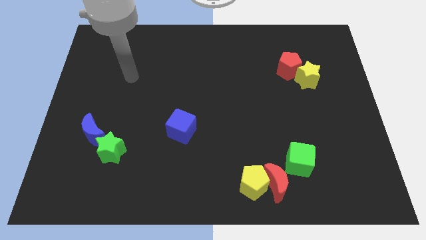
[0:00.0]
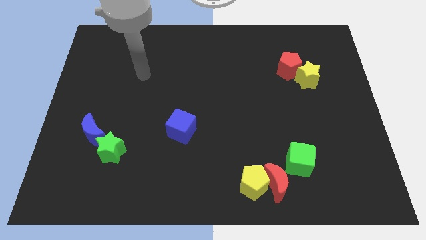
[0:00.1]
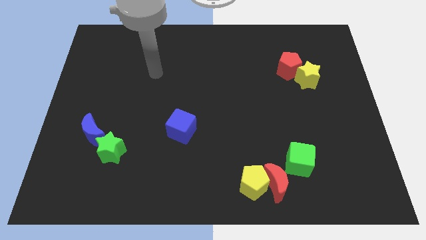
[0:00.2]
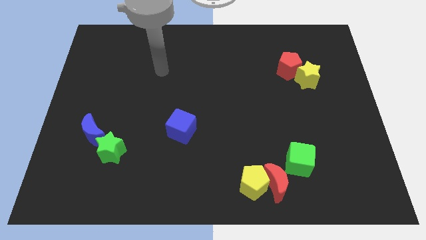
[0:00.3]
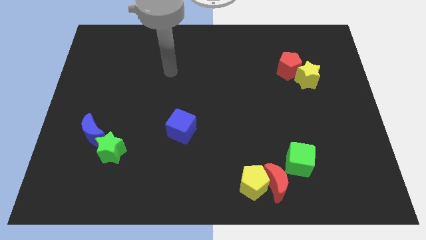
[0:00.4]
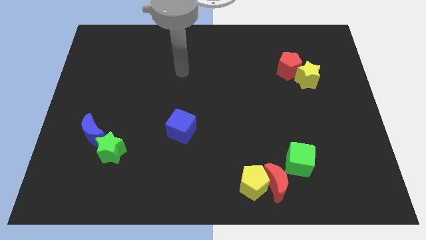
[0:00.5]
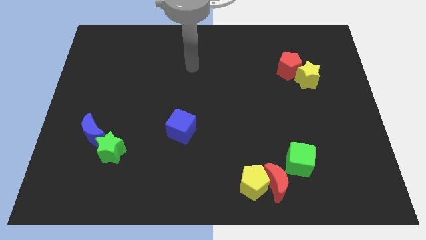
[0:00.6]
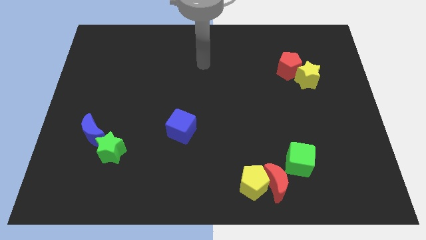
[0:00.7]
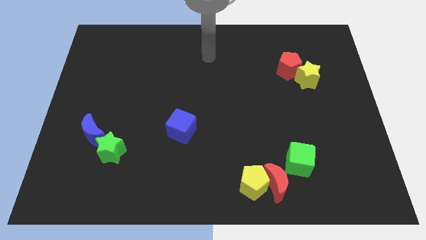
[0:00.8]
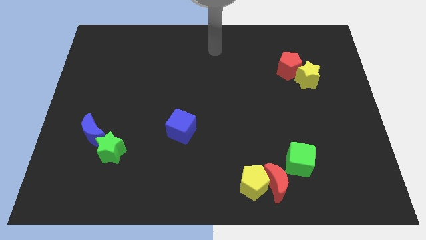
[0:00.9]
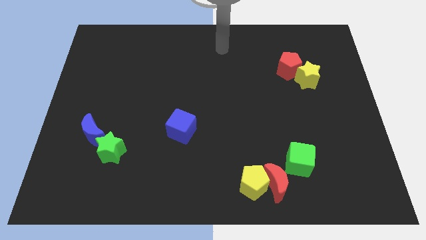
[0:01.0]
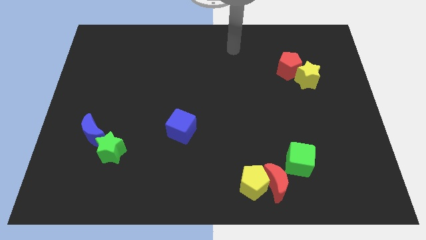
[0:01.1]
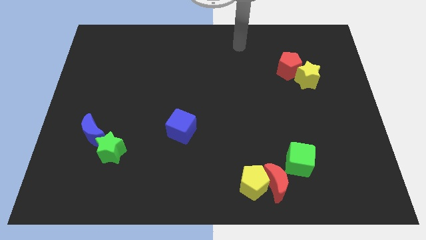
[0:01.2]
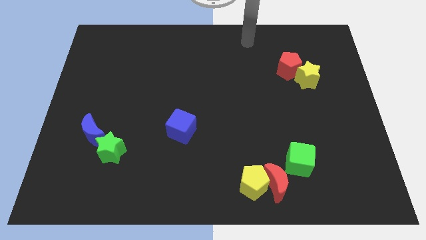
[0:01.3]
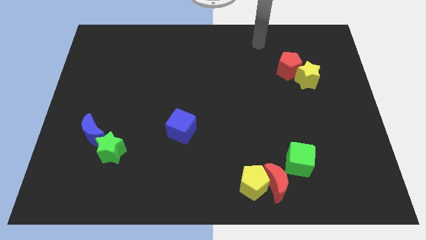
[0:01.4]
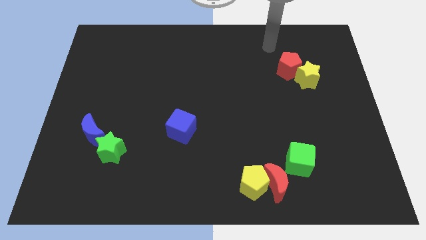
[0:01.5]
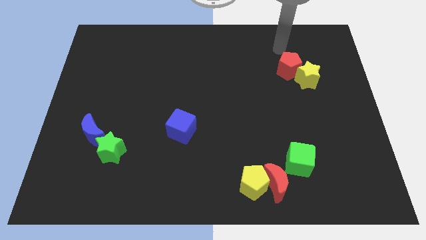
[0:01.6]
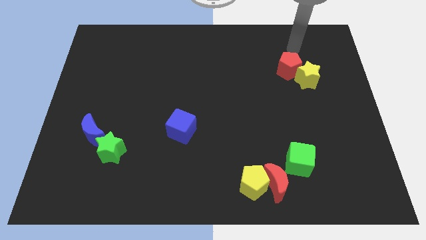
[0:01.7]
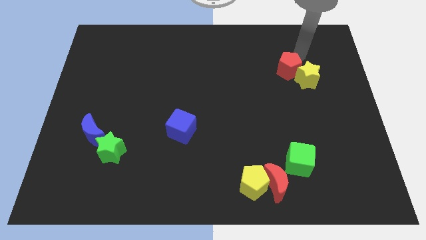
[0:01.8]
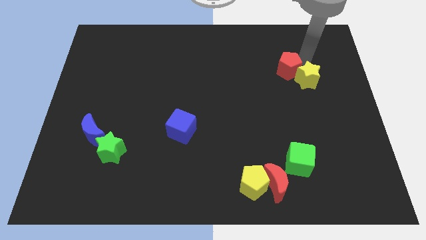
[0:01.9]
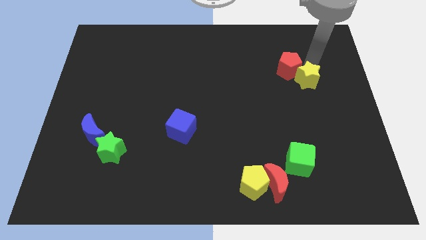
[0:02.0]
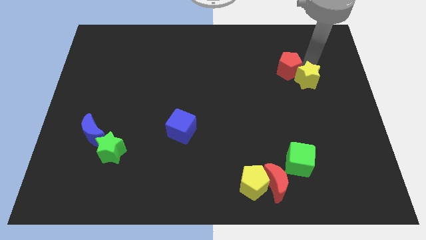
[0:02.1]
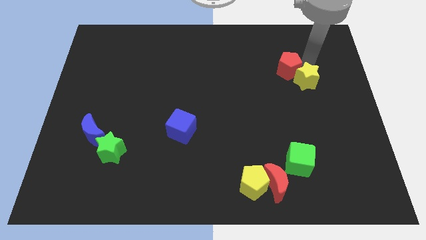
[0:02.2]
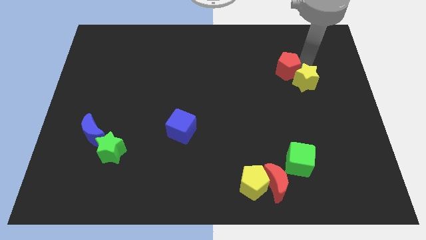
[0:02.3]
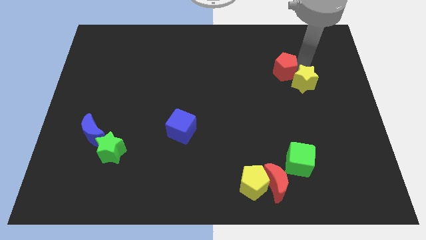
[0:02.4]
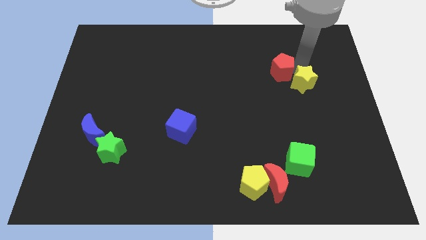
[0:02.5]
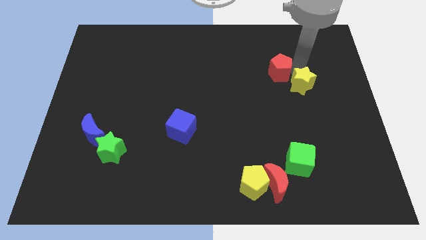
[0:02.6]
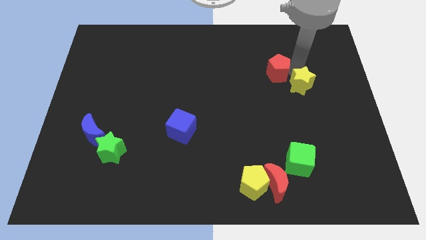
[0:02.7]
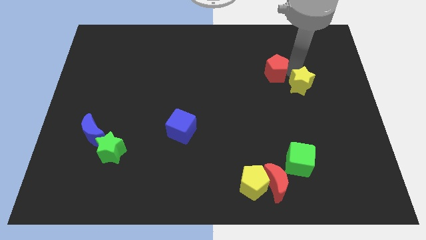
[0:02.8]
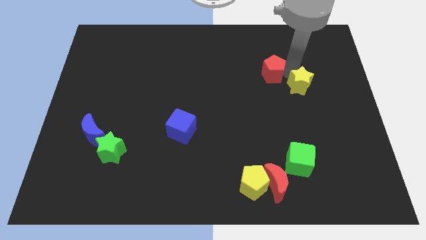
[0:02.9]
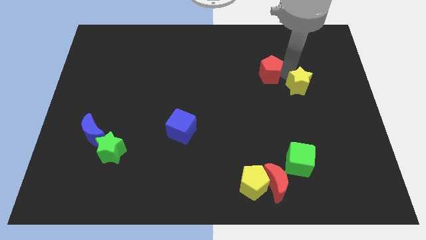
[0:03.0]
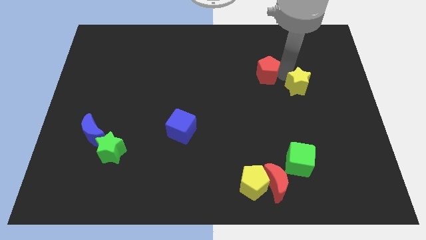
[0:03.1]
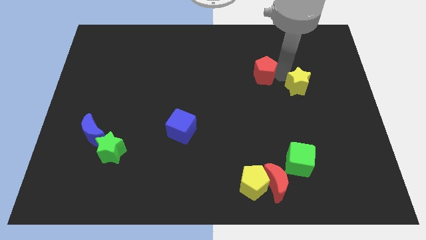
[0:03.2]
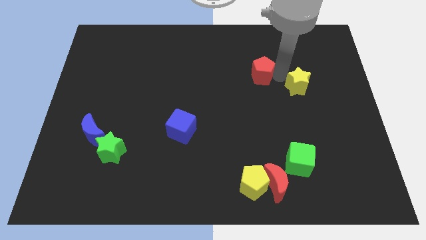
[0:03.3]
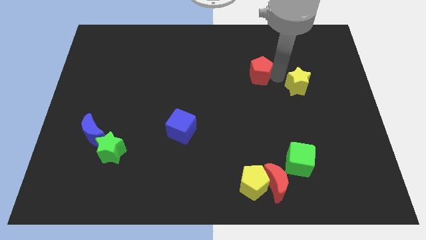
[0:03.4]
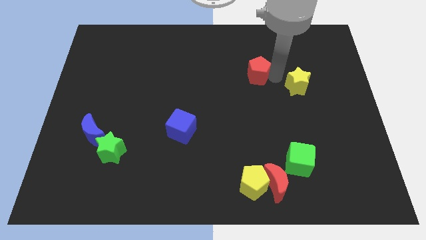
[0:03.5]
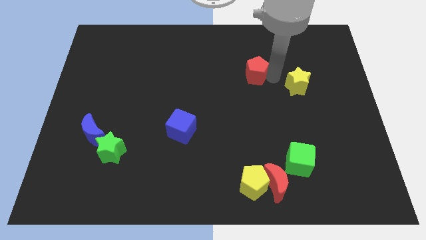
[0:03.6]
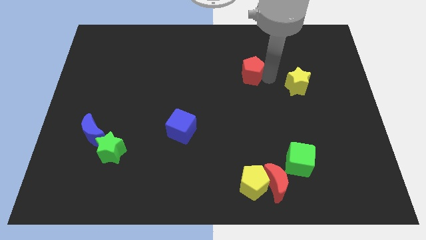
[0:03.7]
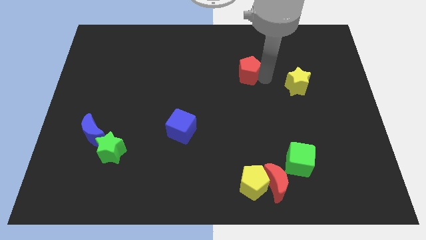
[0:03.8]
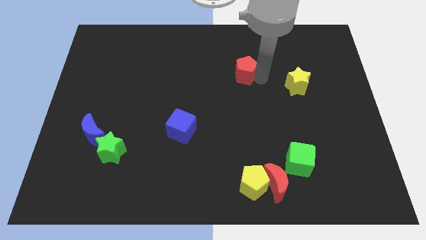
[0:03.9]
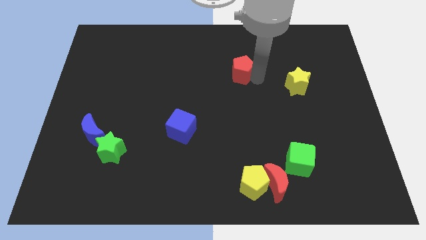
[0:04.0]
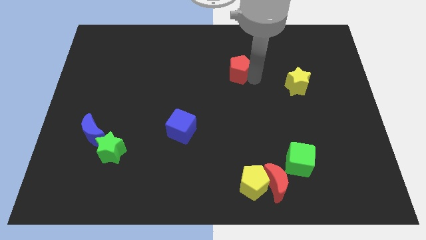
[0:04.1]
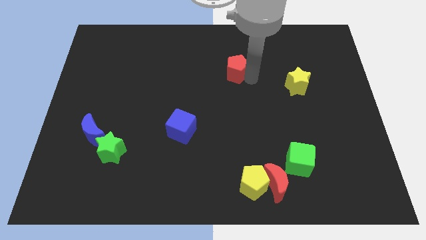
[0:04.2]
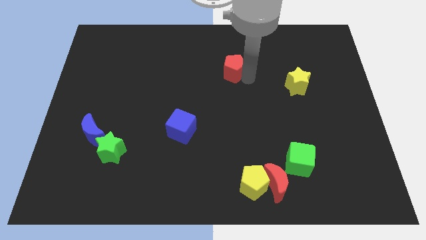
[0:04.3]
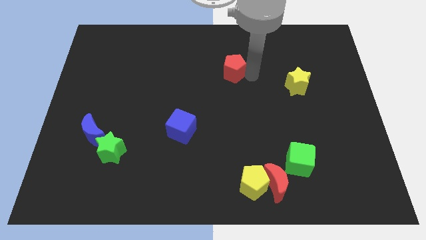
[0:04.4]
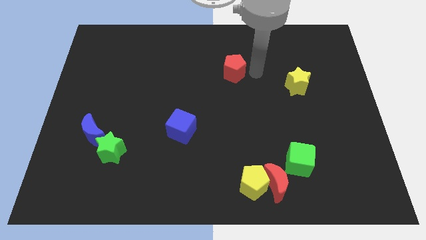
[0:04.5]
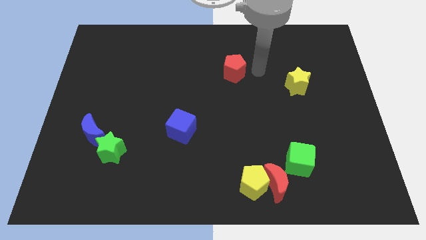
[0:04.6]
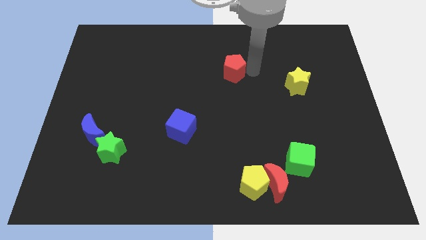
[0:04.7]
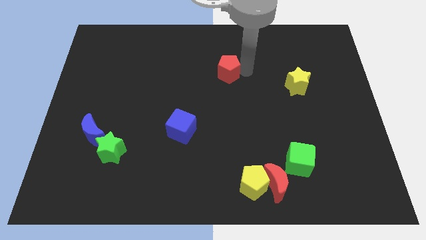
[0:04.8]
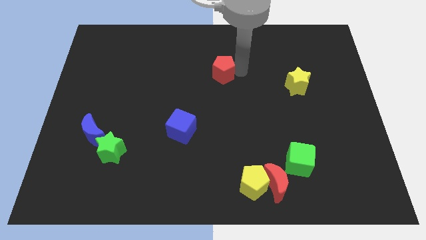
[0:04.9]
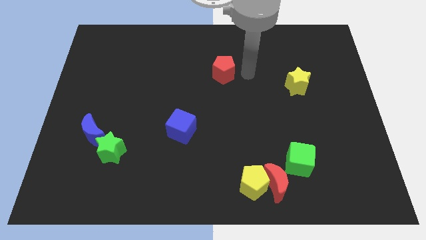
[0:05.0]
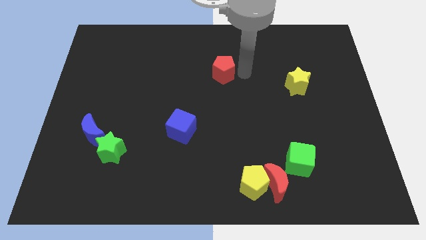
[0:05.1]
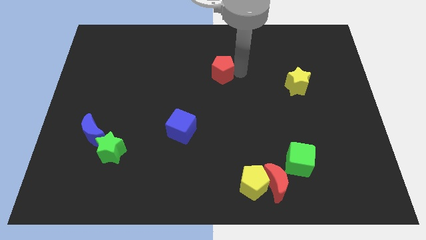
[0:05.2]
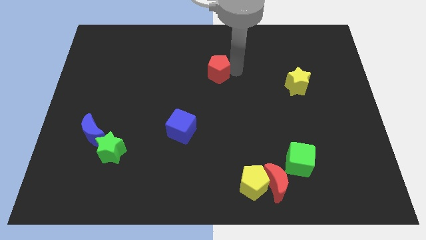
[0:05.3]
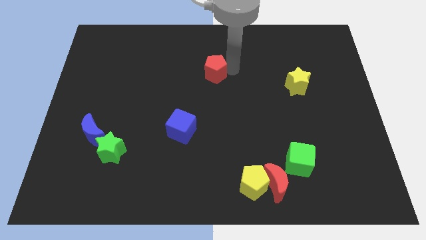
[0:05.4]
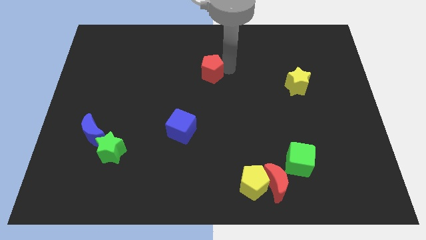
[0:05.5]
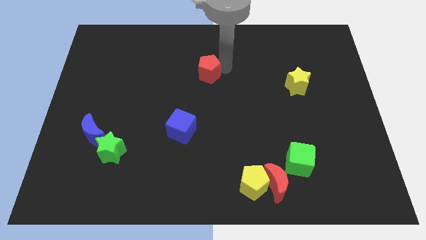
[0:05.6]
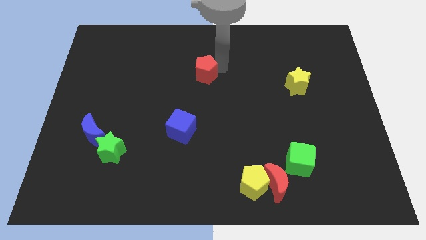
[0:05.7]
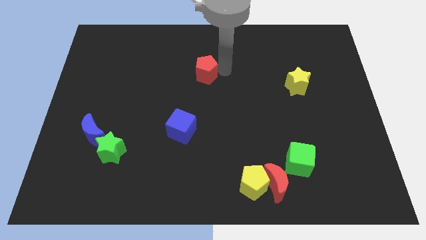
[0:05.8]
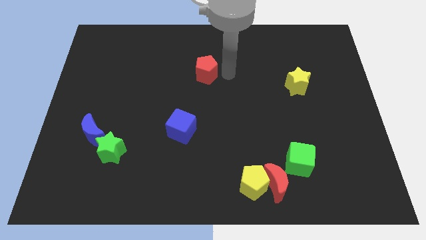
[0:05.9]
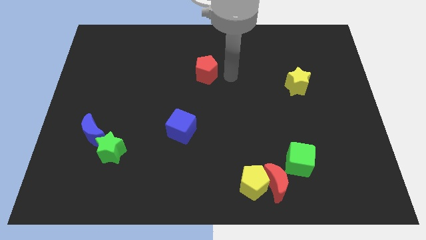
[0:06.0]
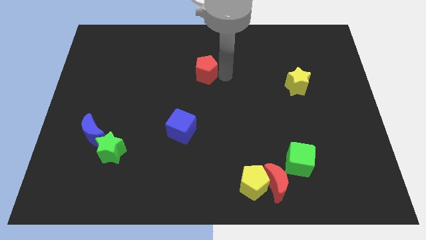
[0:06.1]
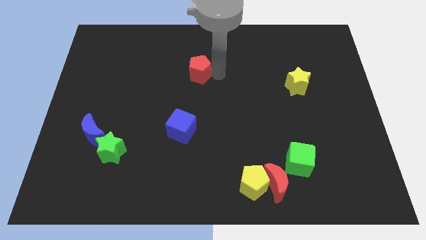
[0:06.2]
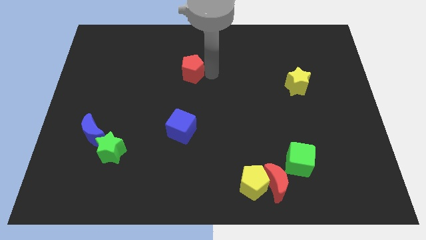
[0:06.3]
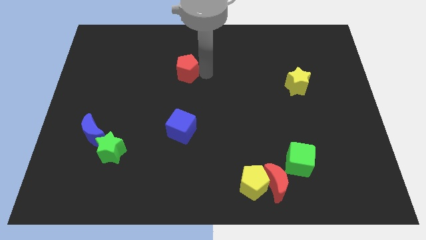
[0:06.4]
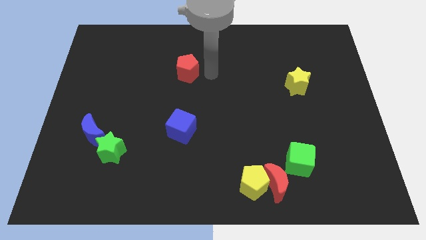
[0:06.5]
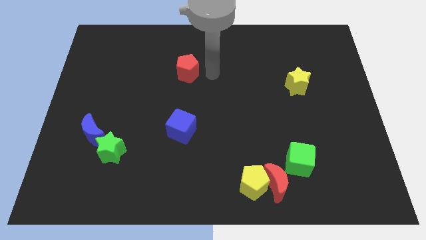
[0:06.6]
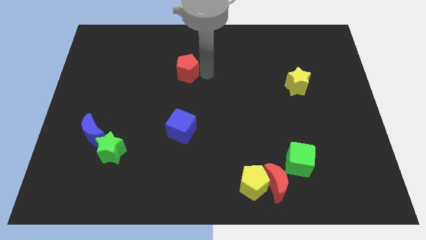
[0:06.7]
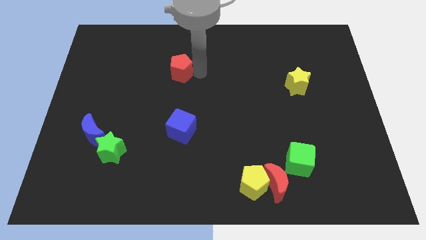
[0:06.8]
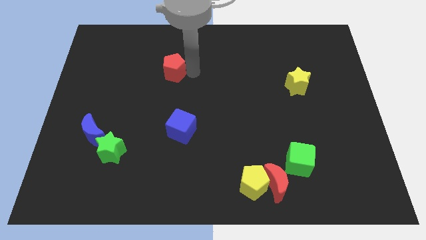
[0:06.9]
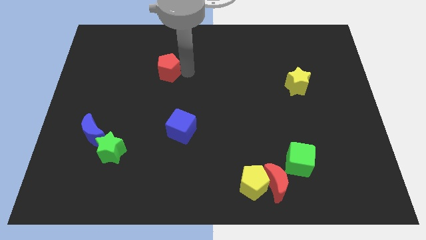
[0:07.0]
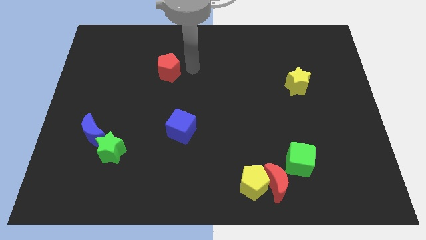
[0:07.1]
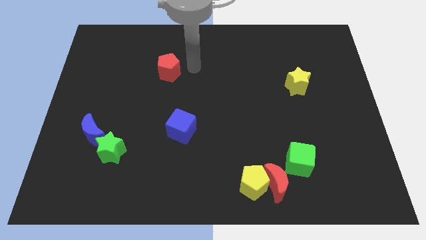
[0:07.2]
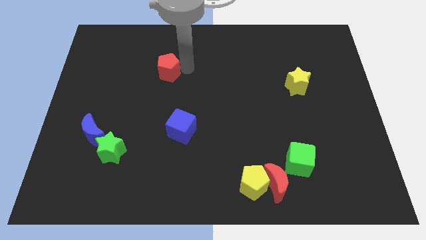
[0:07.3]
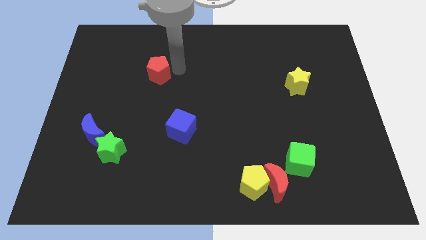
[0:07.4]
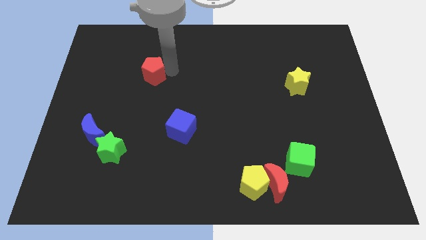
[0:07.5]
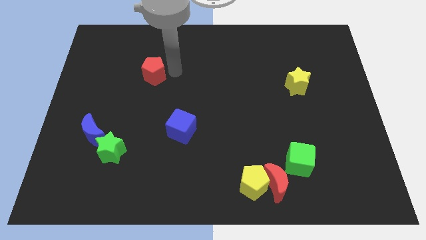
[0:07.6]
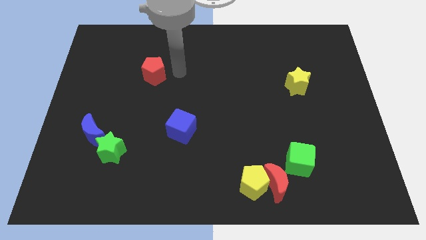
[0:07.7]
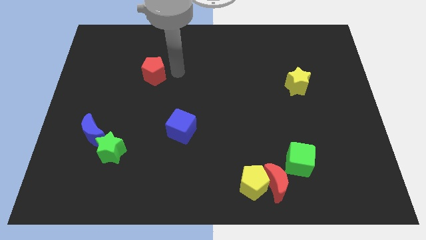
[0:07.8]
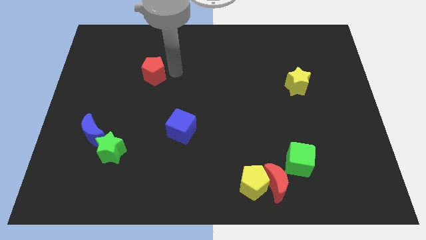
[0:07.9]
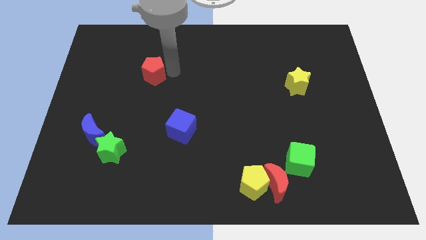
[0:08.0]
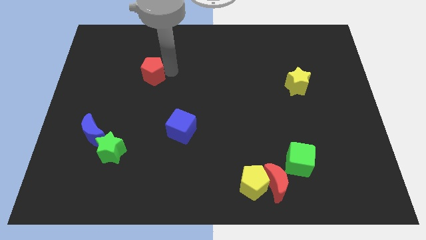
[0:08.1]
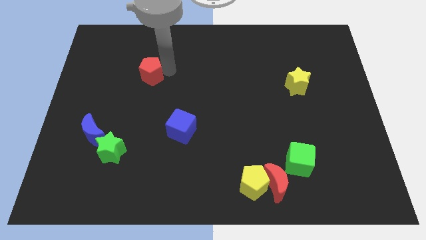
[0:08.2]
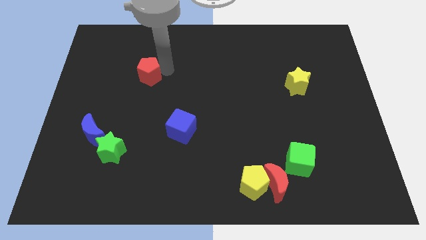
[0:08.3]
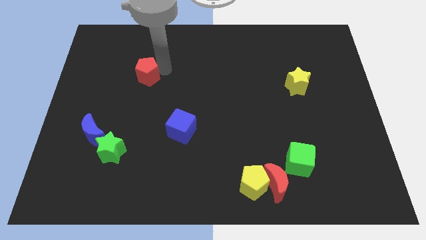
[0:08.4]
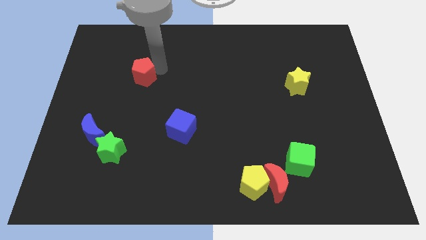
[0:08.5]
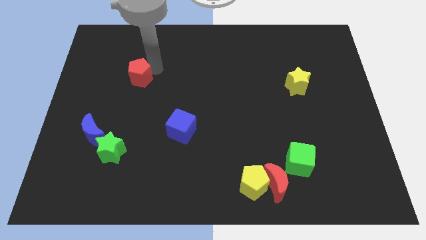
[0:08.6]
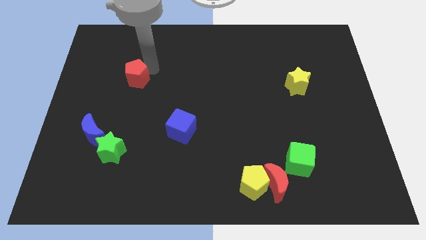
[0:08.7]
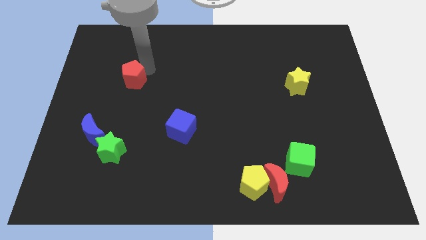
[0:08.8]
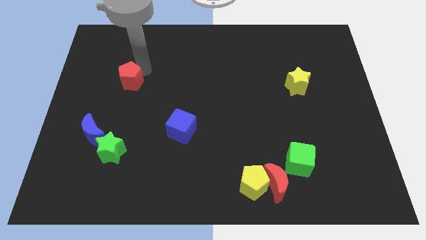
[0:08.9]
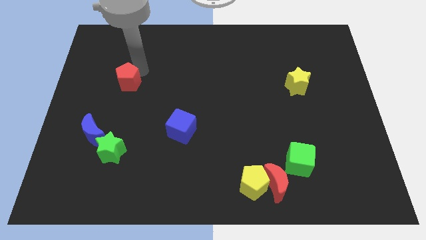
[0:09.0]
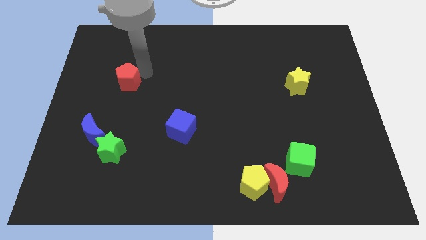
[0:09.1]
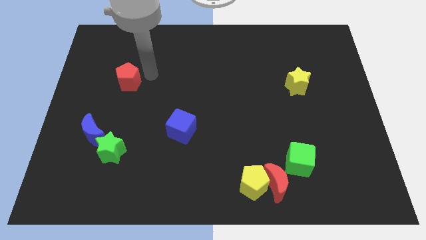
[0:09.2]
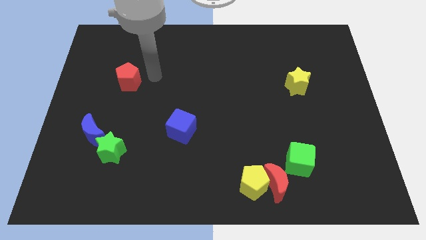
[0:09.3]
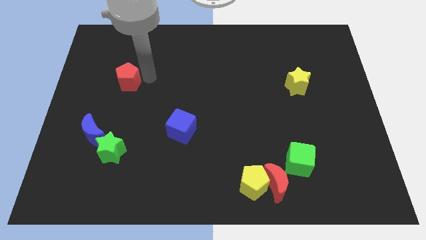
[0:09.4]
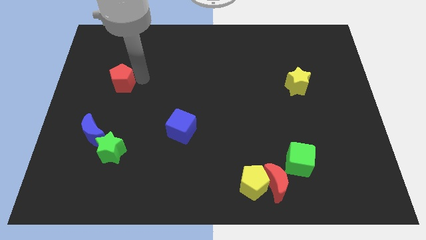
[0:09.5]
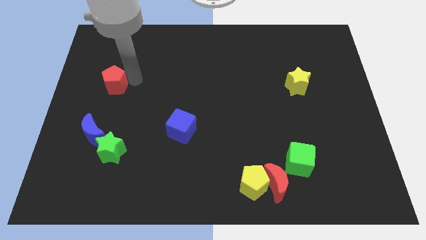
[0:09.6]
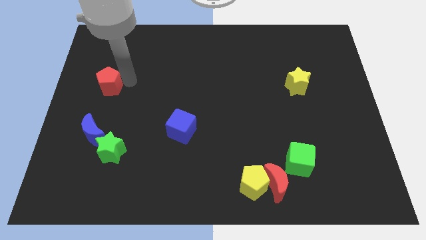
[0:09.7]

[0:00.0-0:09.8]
put the red pentagon to the left side of the board
